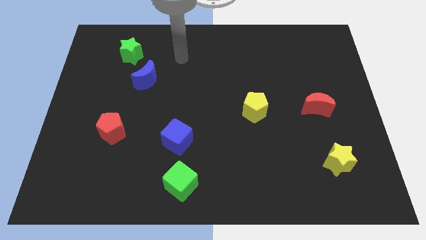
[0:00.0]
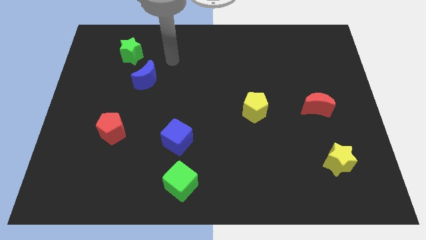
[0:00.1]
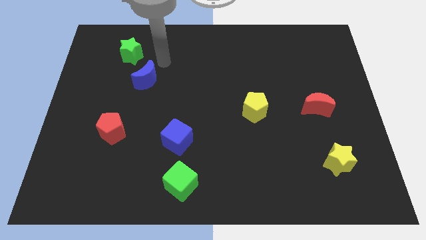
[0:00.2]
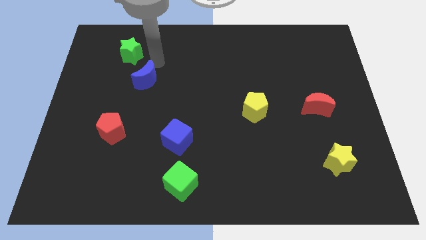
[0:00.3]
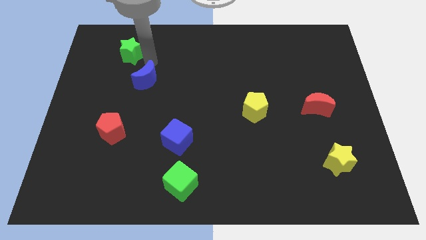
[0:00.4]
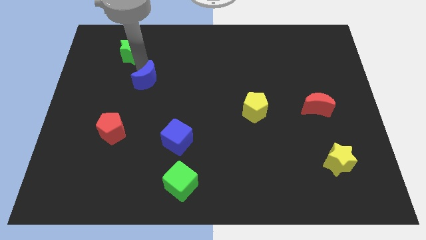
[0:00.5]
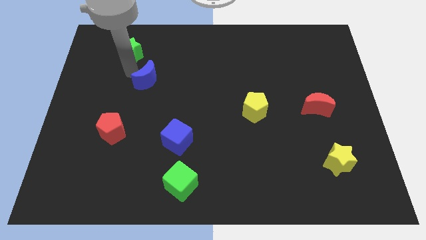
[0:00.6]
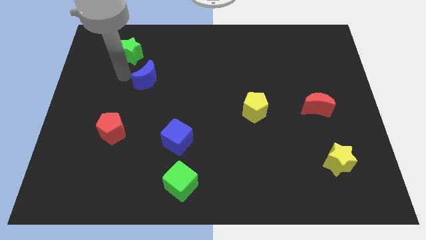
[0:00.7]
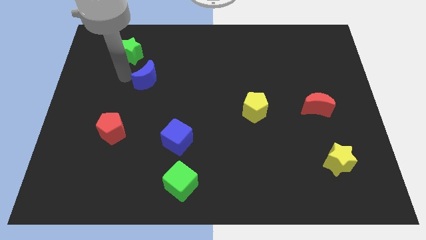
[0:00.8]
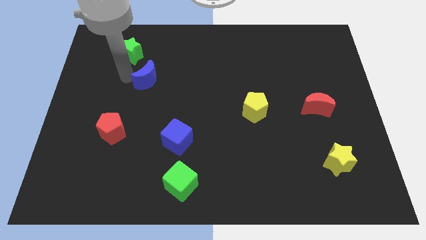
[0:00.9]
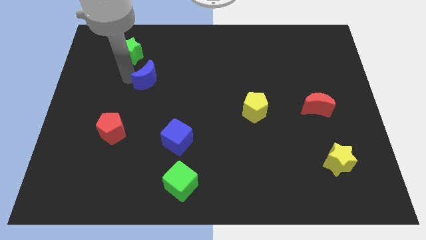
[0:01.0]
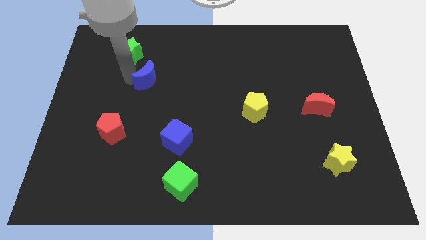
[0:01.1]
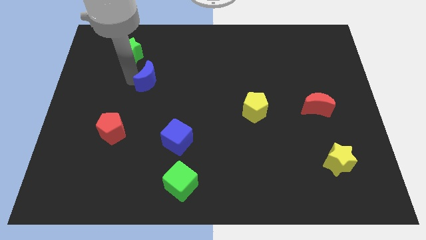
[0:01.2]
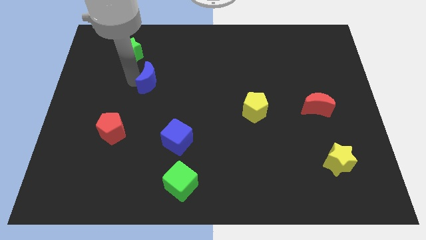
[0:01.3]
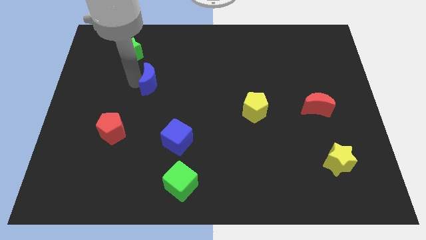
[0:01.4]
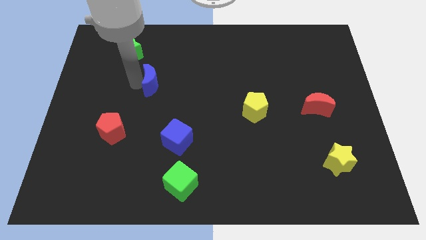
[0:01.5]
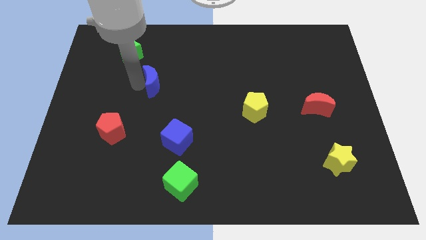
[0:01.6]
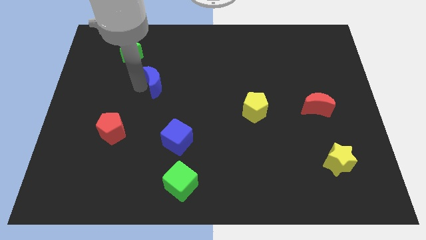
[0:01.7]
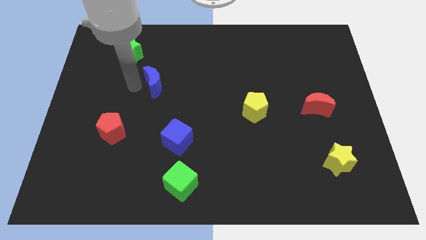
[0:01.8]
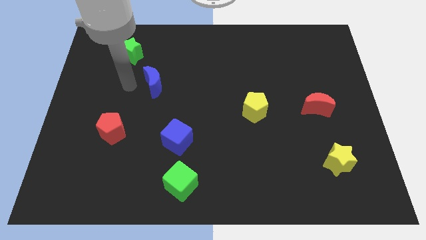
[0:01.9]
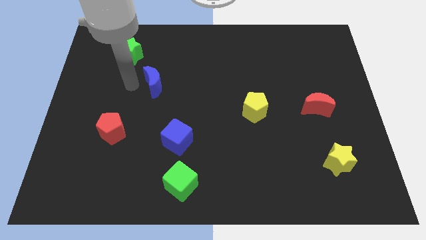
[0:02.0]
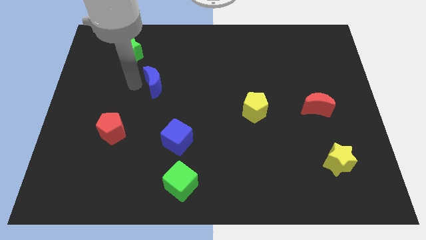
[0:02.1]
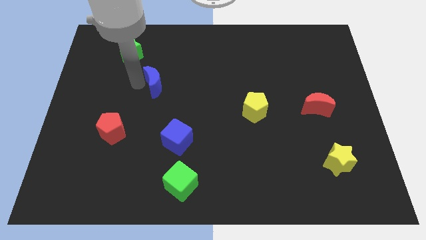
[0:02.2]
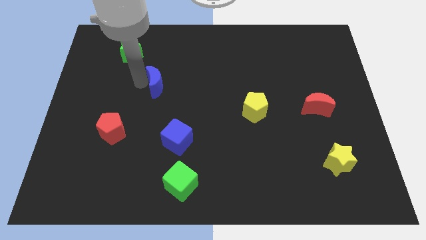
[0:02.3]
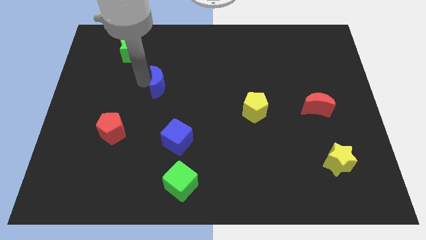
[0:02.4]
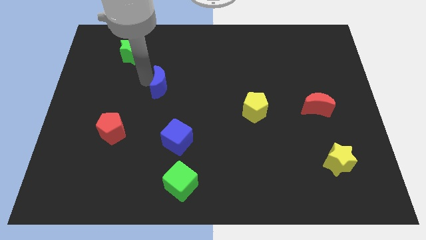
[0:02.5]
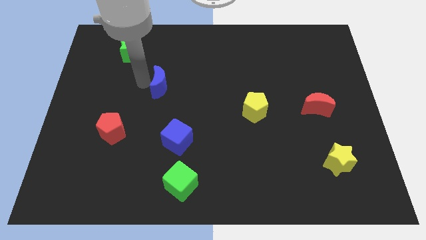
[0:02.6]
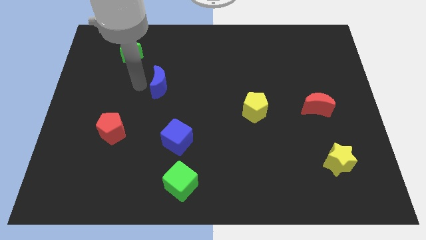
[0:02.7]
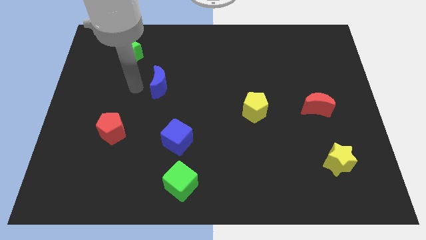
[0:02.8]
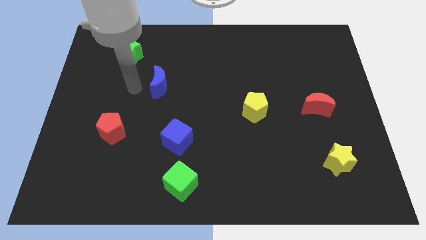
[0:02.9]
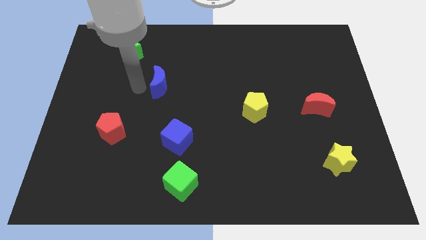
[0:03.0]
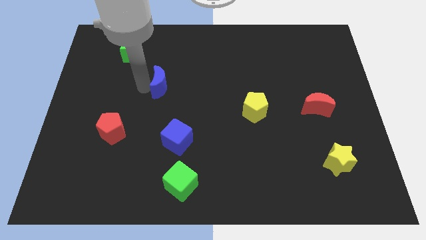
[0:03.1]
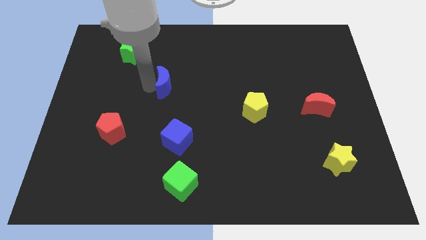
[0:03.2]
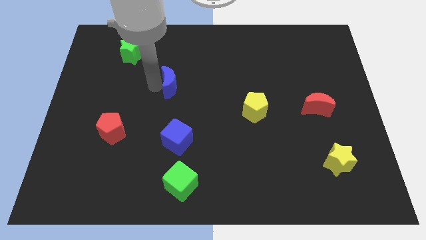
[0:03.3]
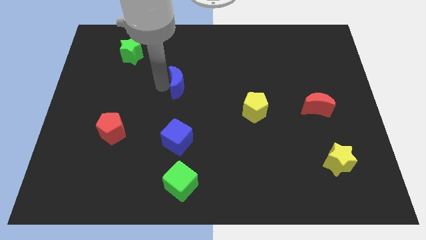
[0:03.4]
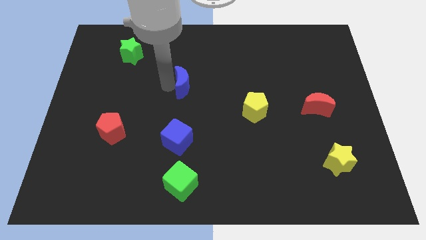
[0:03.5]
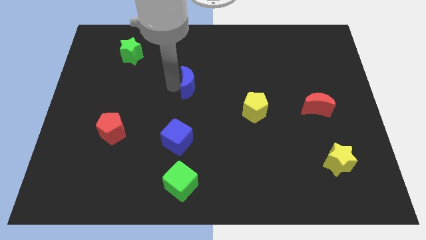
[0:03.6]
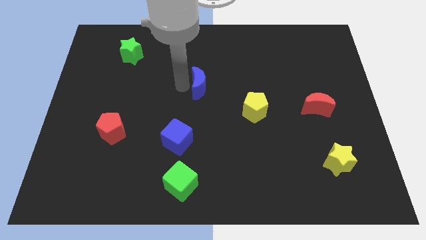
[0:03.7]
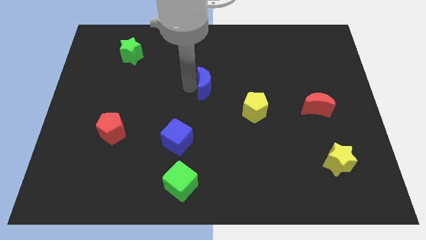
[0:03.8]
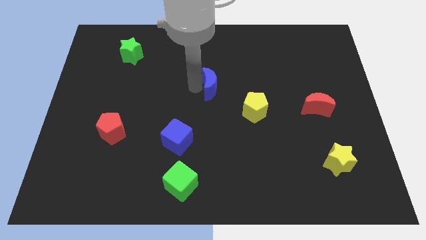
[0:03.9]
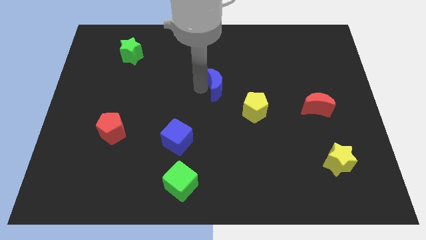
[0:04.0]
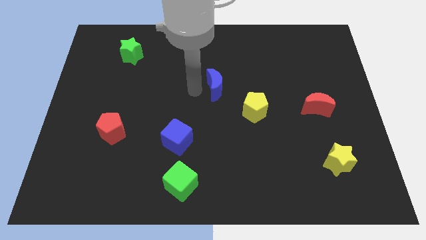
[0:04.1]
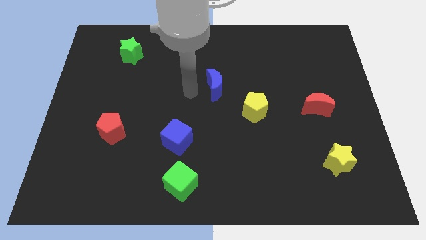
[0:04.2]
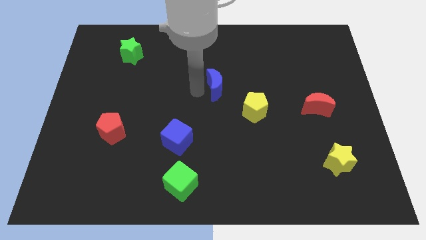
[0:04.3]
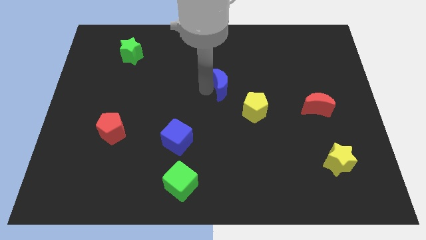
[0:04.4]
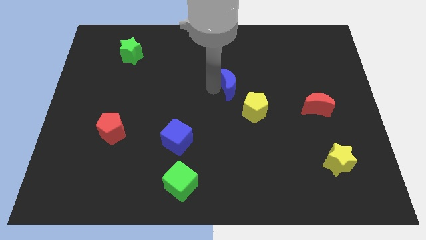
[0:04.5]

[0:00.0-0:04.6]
move the blue moon to the right

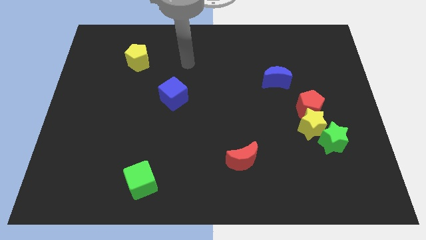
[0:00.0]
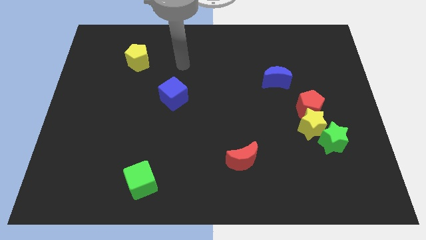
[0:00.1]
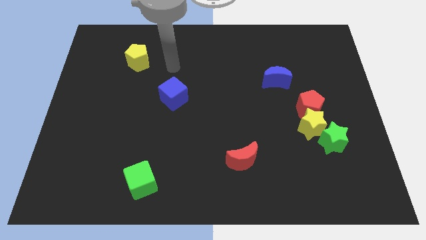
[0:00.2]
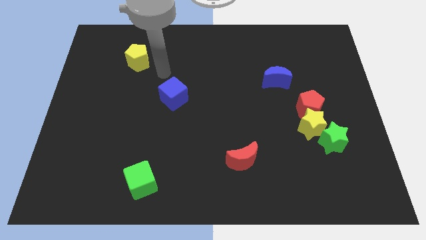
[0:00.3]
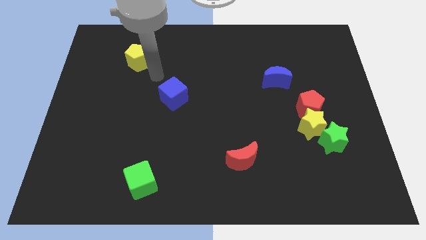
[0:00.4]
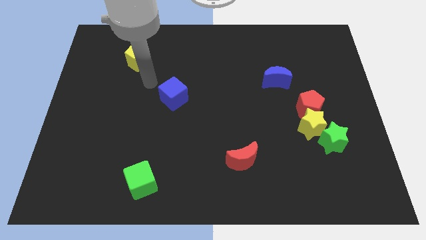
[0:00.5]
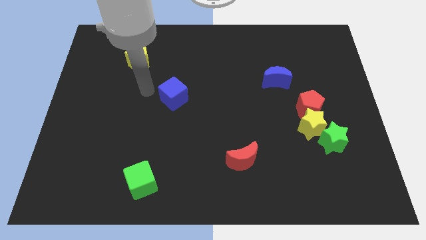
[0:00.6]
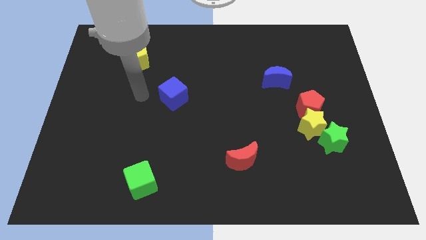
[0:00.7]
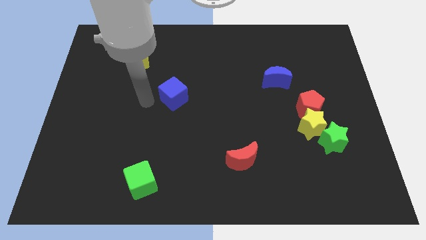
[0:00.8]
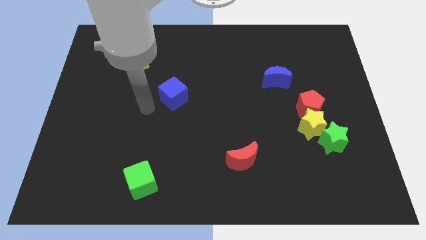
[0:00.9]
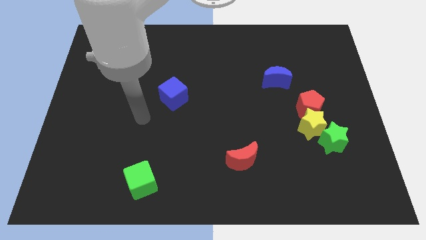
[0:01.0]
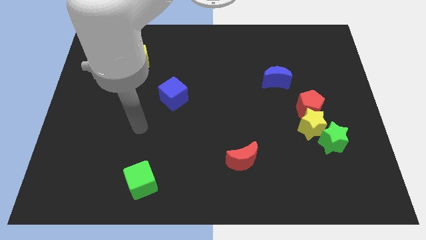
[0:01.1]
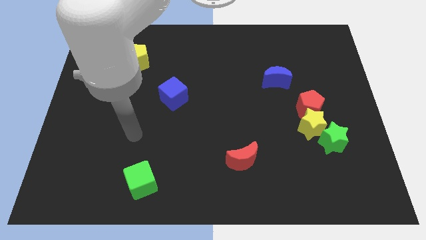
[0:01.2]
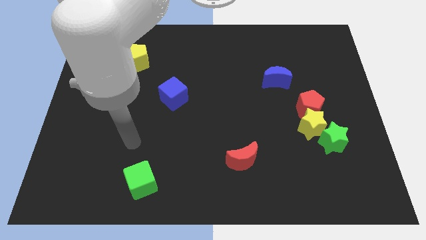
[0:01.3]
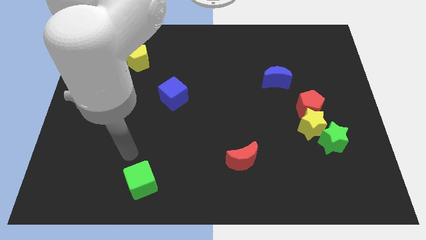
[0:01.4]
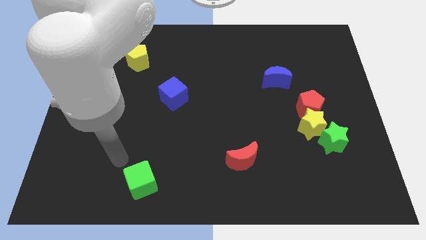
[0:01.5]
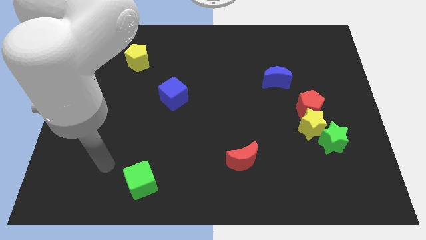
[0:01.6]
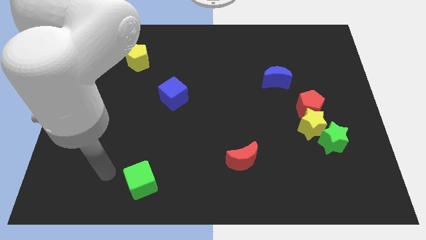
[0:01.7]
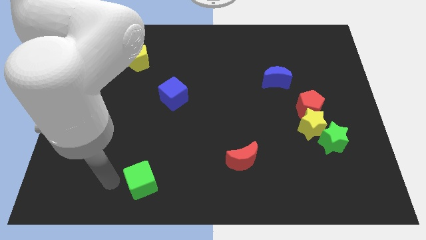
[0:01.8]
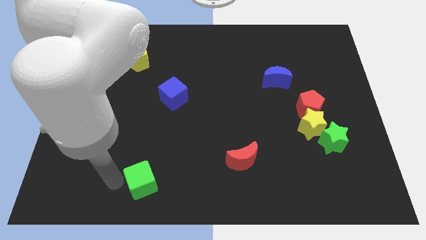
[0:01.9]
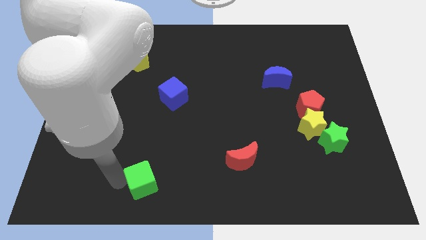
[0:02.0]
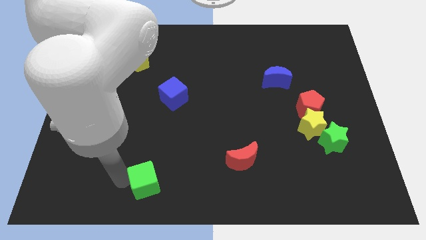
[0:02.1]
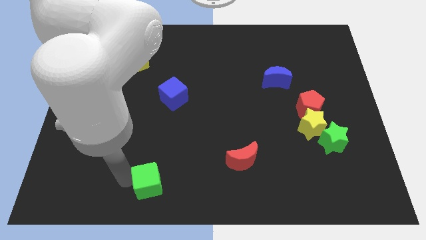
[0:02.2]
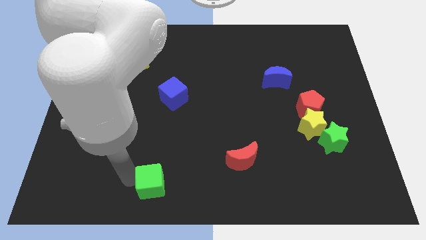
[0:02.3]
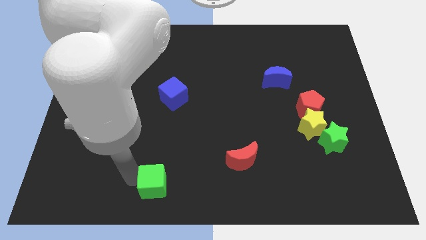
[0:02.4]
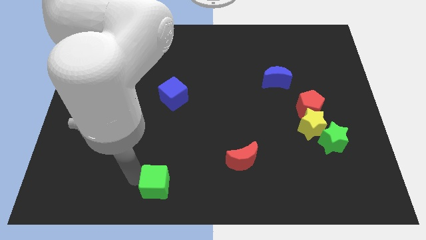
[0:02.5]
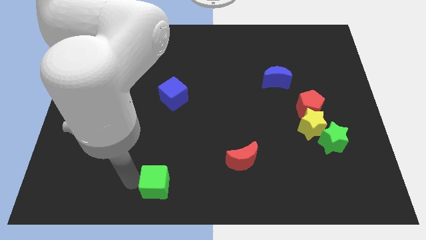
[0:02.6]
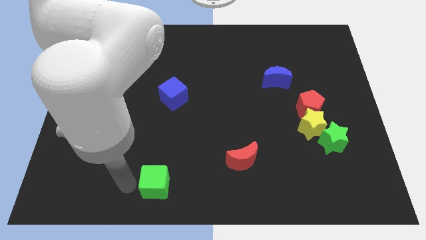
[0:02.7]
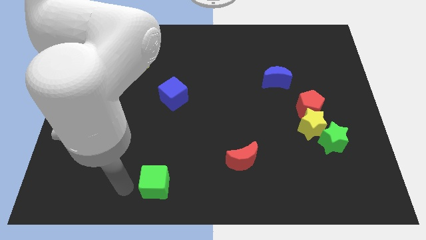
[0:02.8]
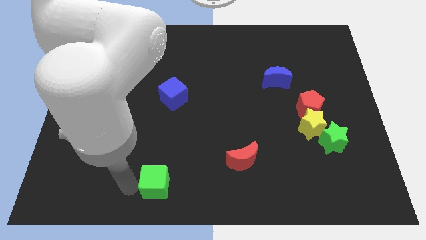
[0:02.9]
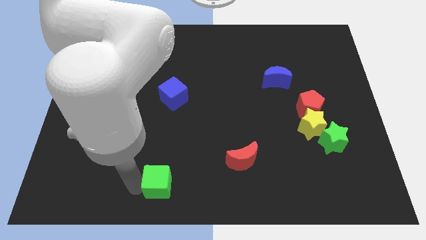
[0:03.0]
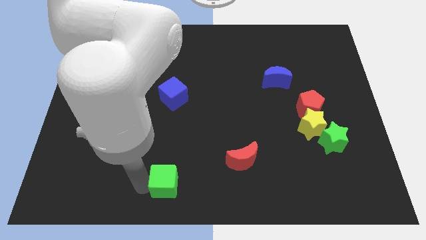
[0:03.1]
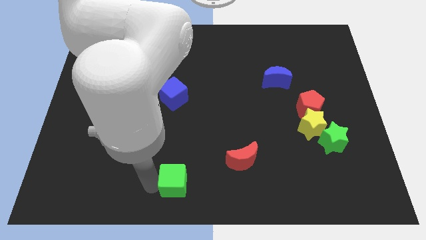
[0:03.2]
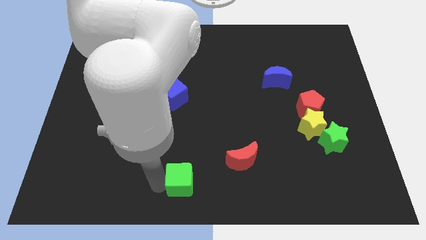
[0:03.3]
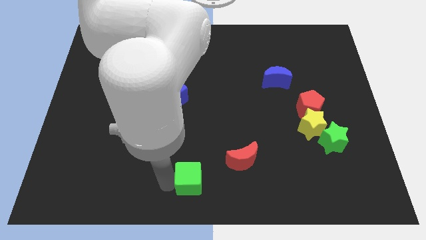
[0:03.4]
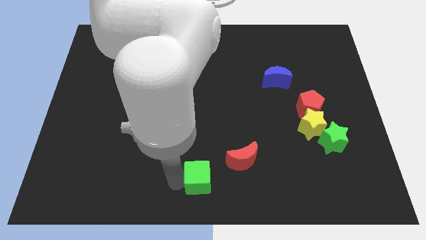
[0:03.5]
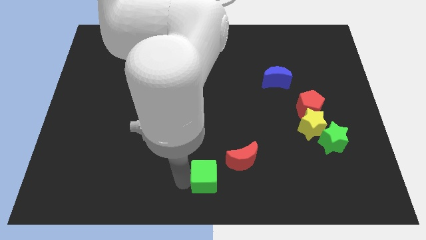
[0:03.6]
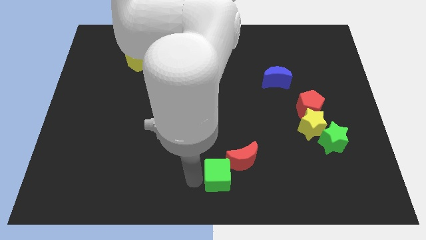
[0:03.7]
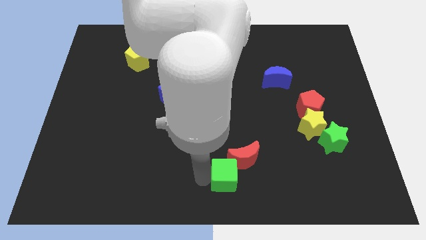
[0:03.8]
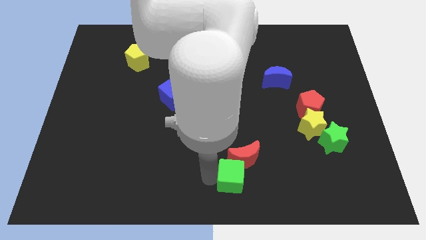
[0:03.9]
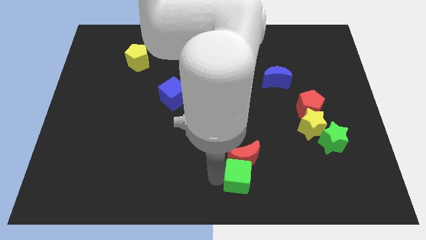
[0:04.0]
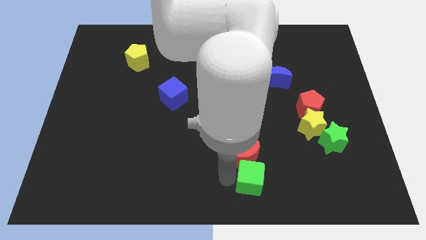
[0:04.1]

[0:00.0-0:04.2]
move the green cube right
